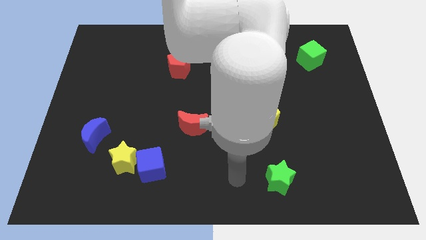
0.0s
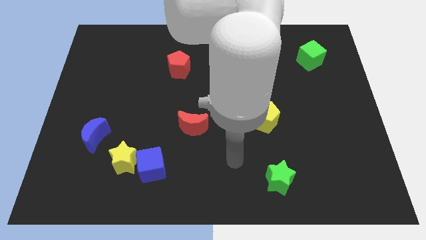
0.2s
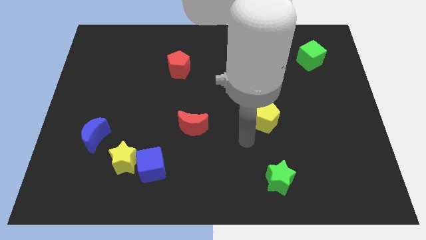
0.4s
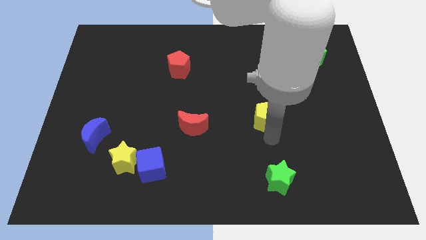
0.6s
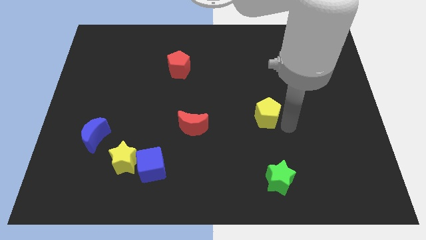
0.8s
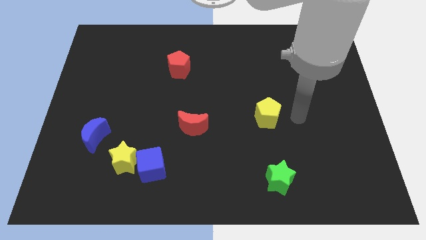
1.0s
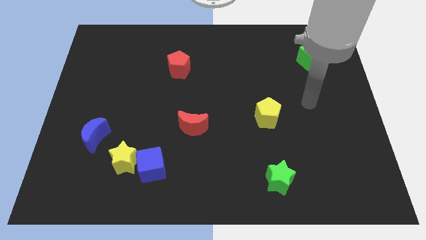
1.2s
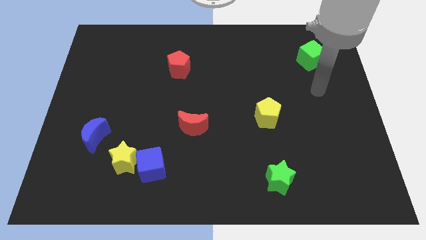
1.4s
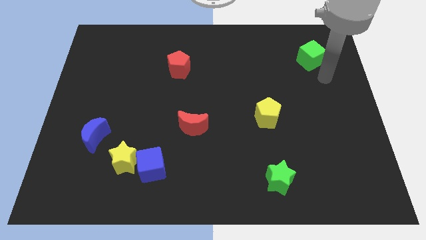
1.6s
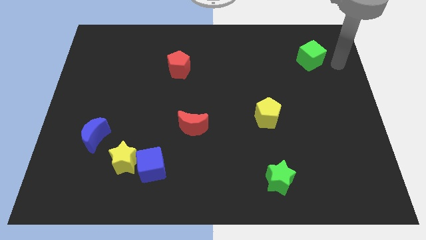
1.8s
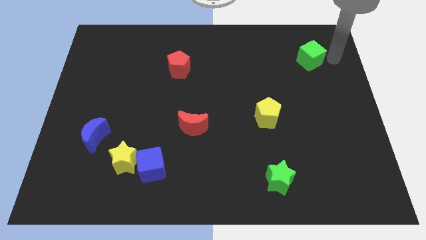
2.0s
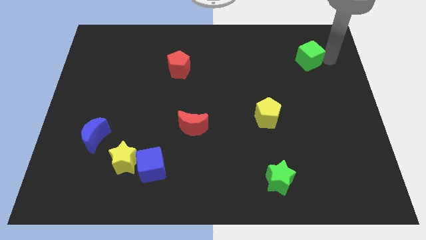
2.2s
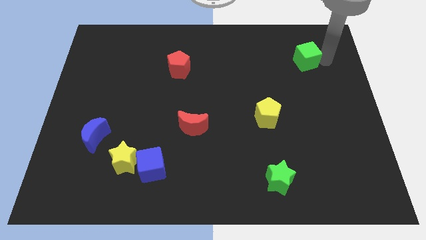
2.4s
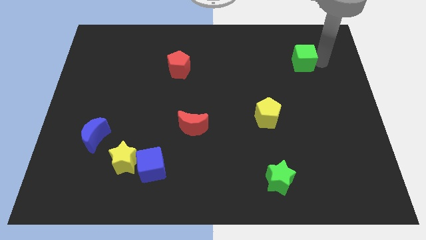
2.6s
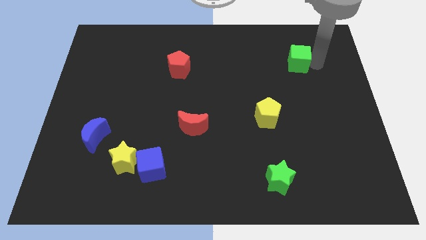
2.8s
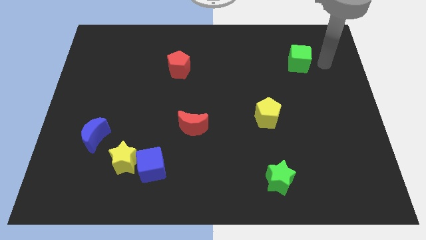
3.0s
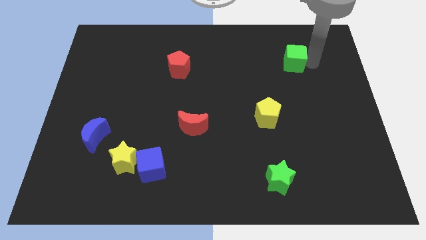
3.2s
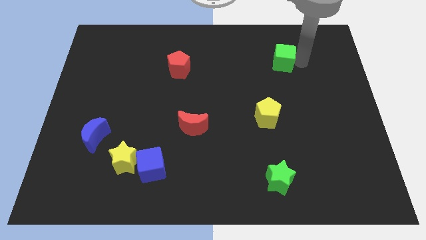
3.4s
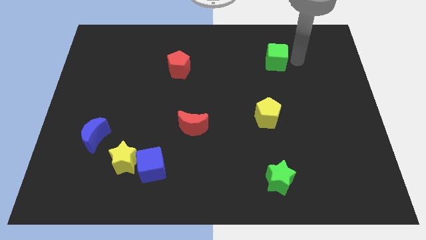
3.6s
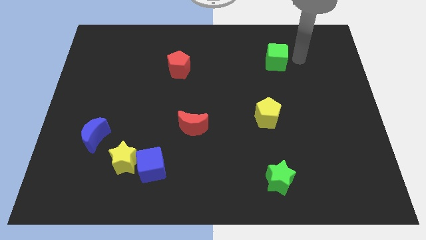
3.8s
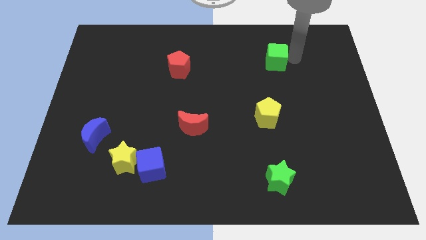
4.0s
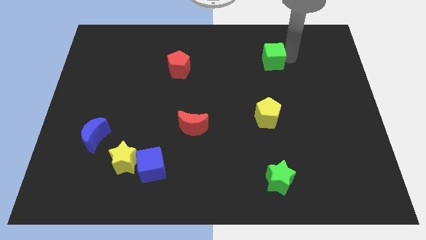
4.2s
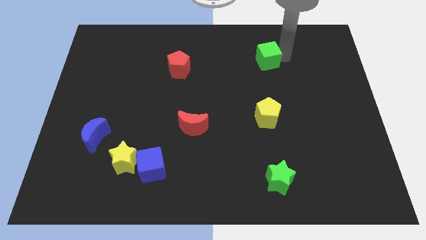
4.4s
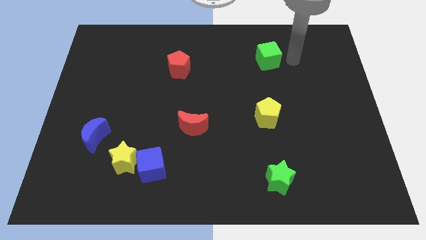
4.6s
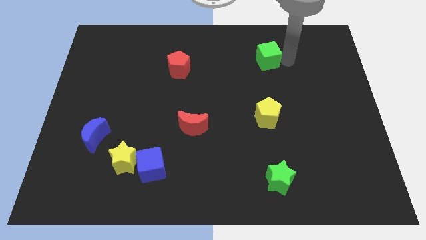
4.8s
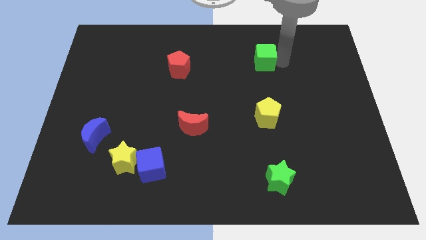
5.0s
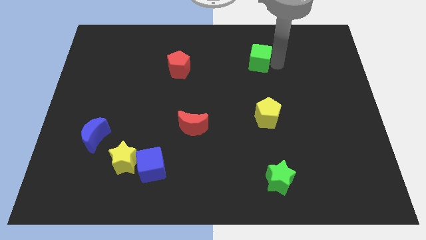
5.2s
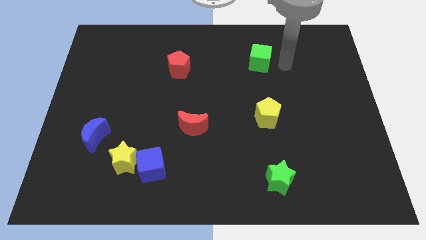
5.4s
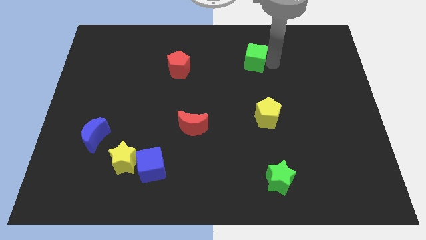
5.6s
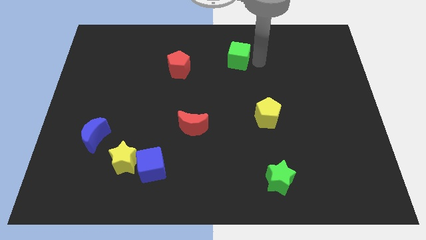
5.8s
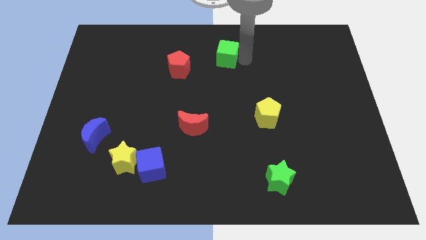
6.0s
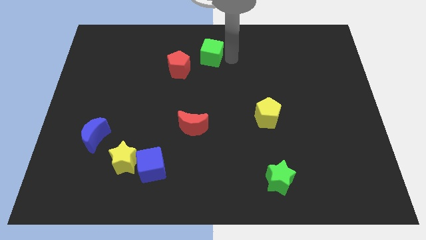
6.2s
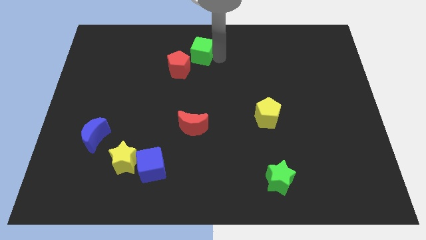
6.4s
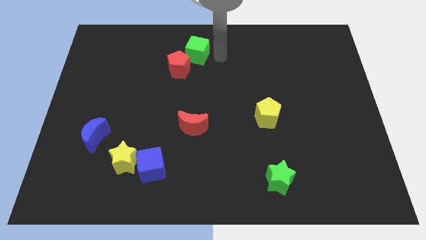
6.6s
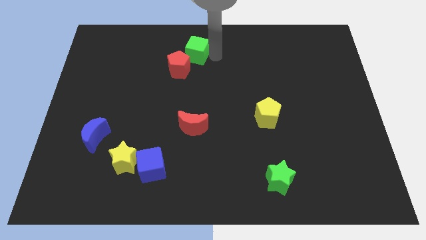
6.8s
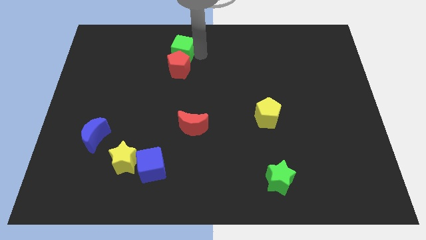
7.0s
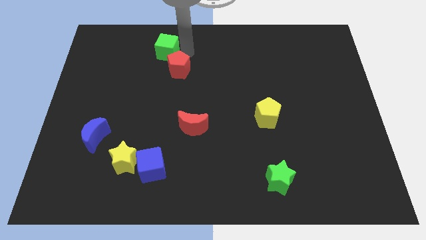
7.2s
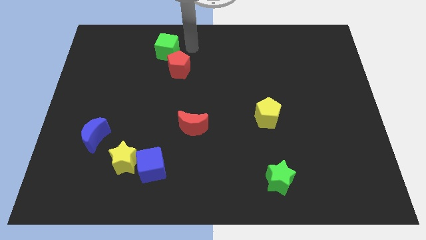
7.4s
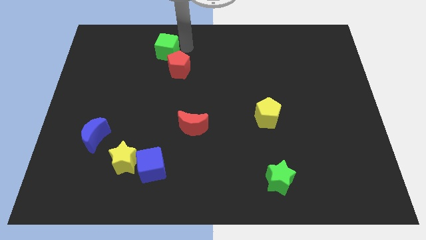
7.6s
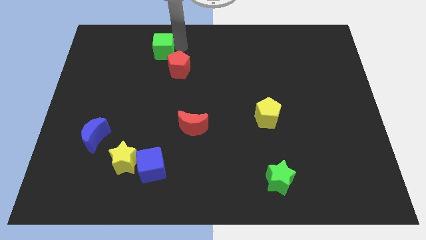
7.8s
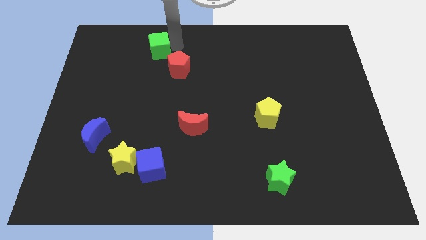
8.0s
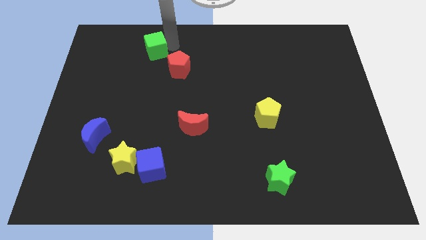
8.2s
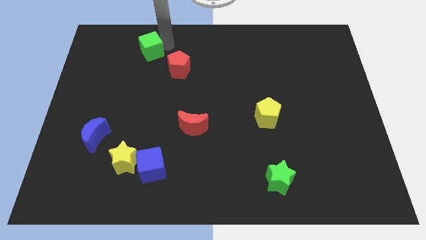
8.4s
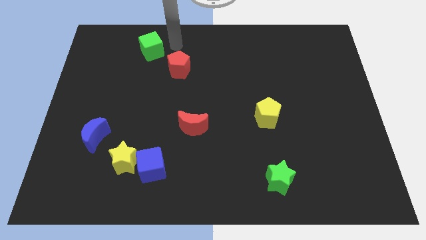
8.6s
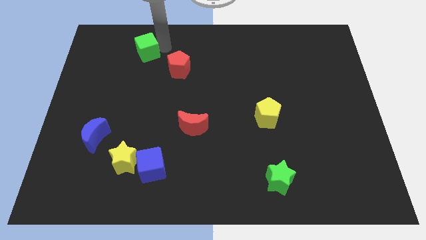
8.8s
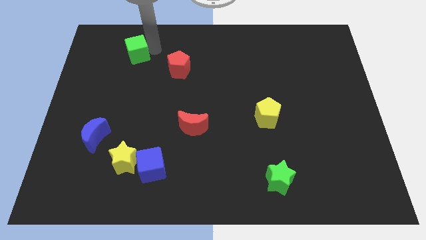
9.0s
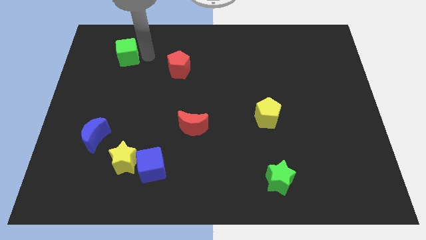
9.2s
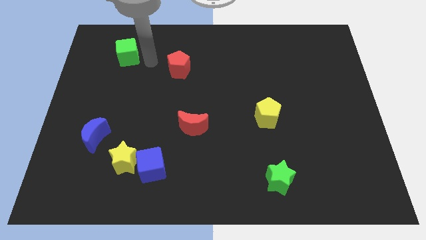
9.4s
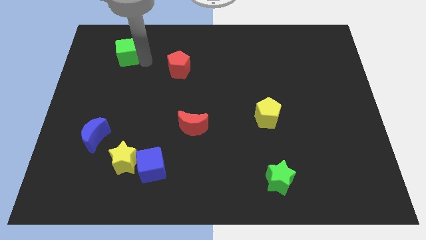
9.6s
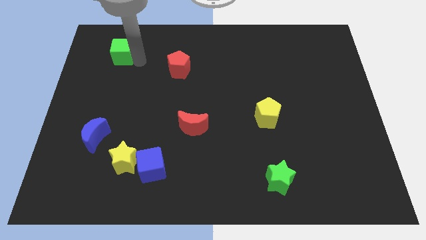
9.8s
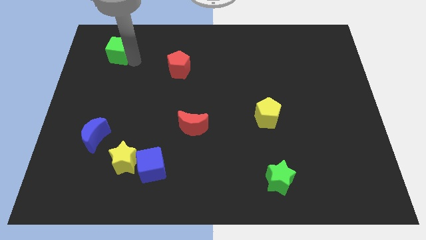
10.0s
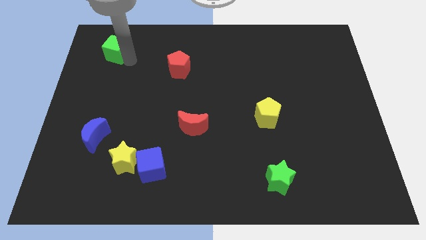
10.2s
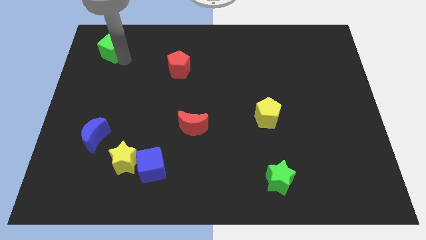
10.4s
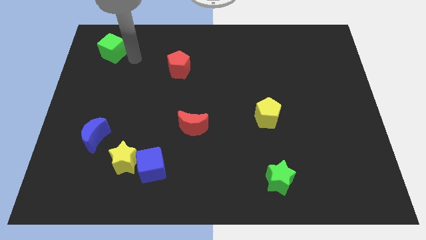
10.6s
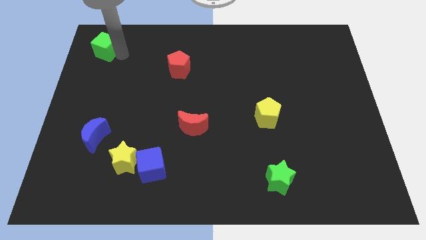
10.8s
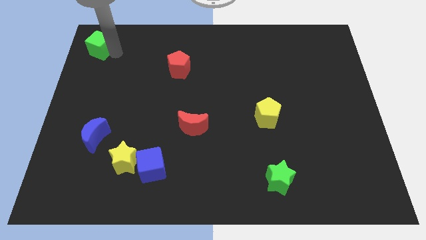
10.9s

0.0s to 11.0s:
move the green cube to the top left corner

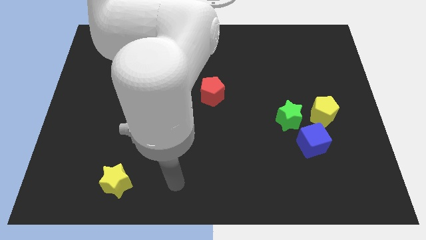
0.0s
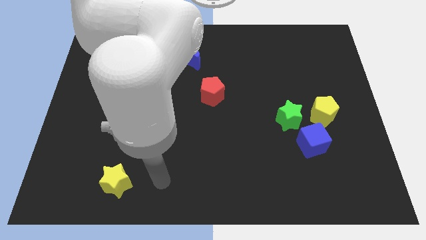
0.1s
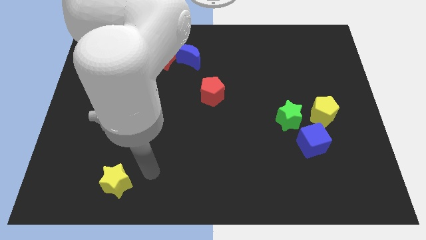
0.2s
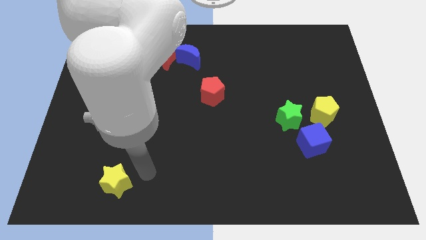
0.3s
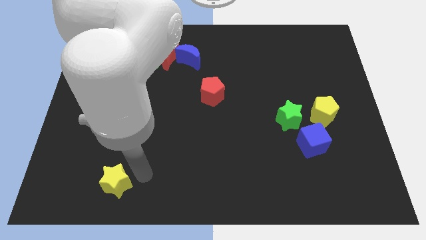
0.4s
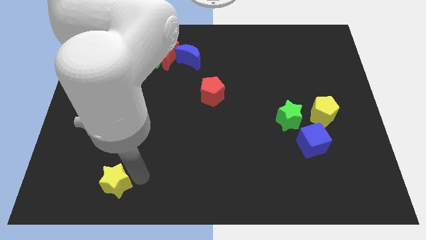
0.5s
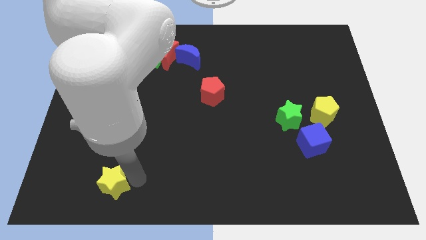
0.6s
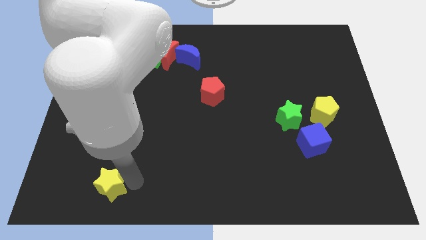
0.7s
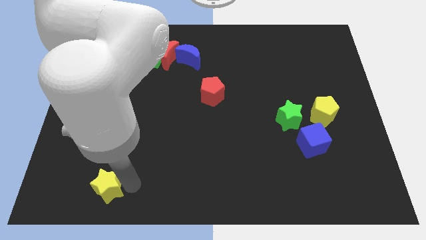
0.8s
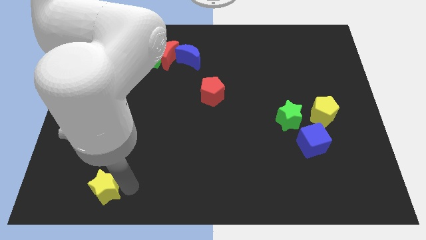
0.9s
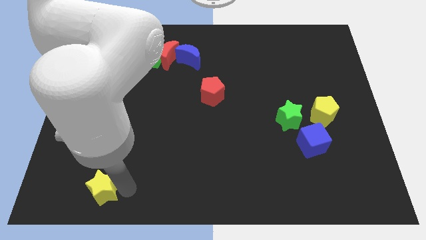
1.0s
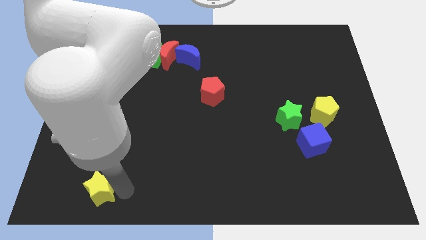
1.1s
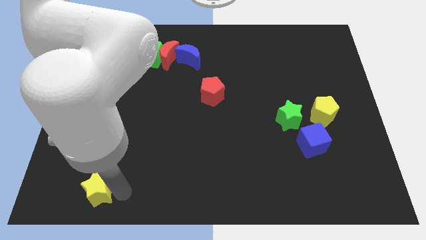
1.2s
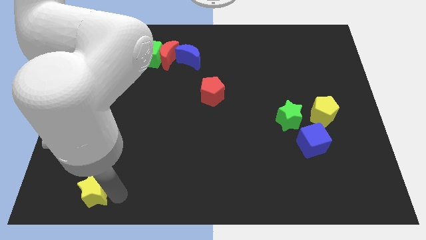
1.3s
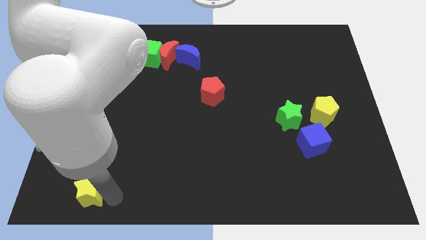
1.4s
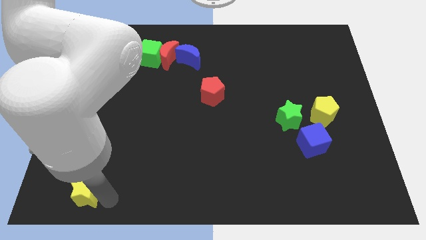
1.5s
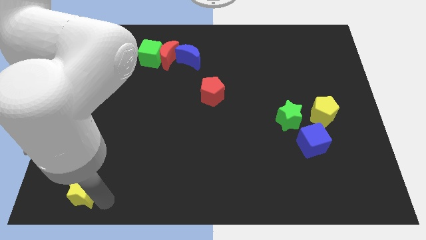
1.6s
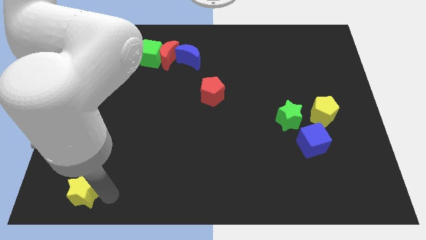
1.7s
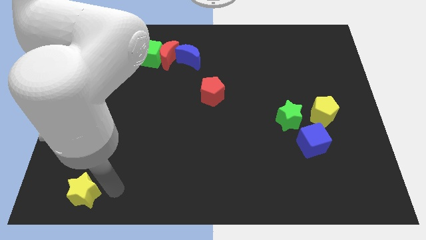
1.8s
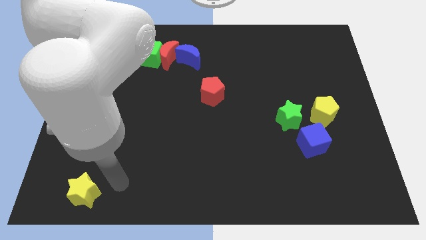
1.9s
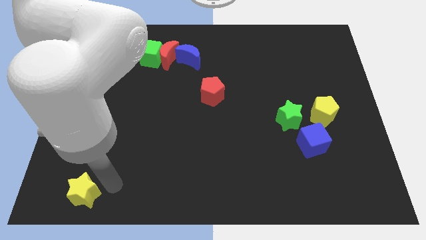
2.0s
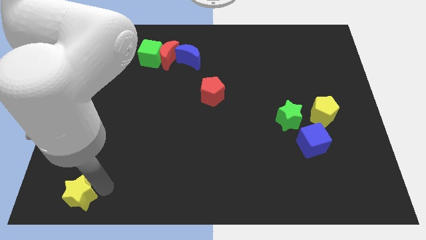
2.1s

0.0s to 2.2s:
move the yellow star to the bottom left corner
